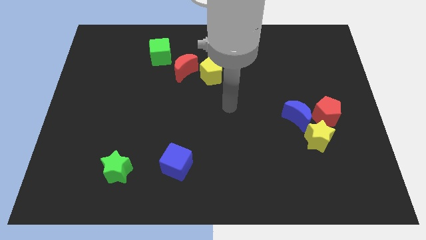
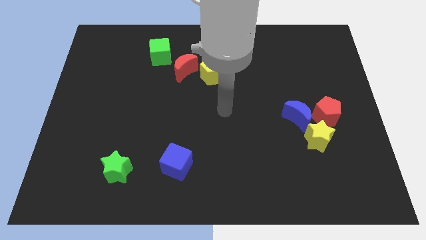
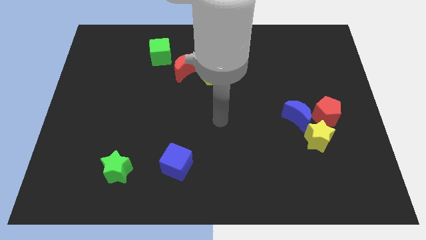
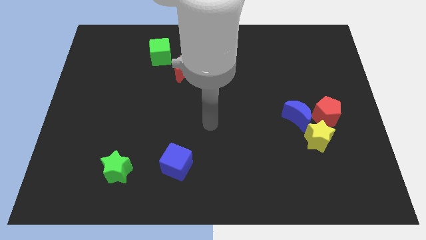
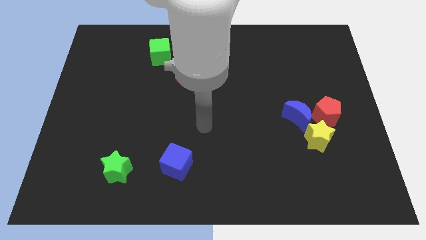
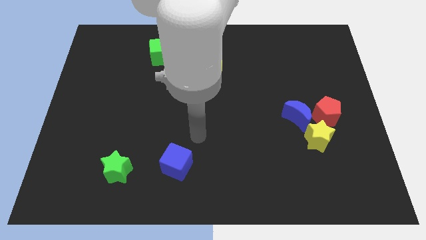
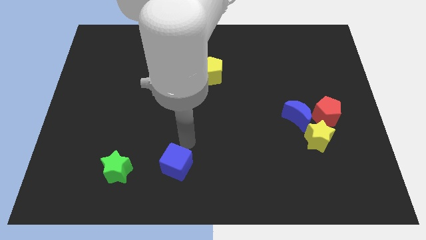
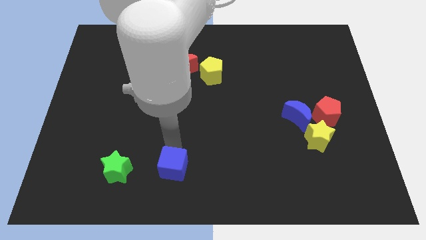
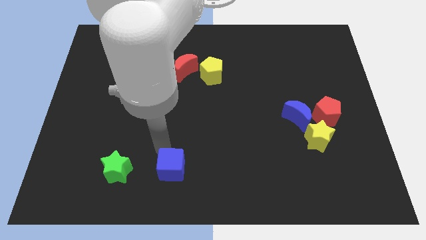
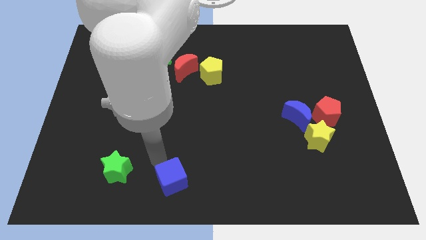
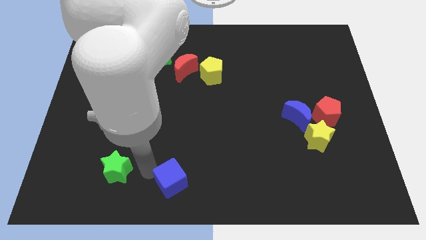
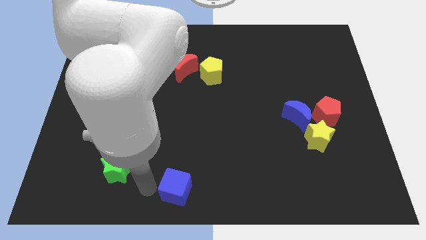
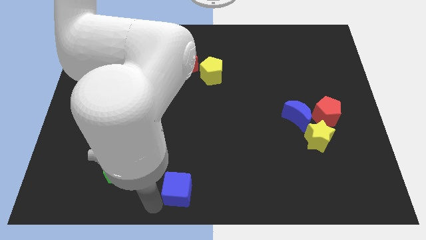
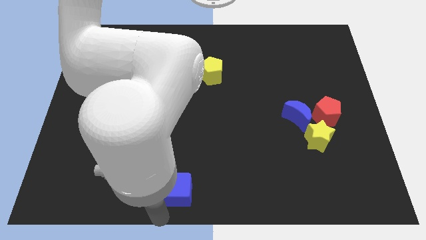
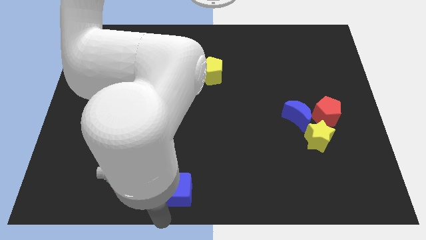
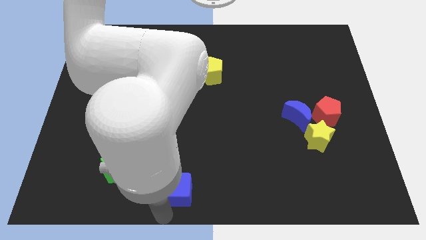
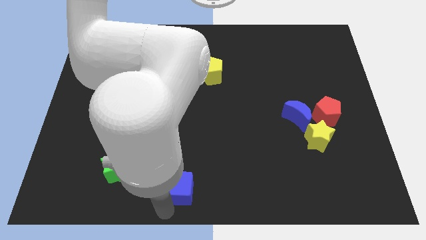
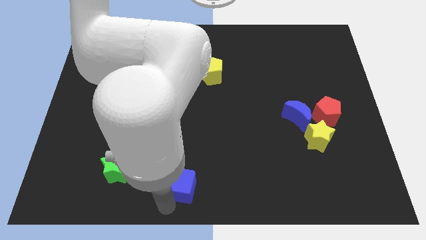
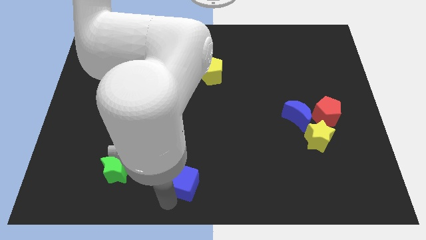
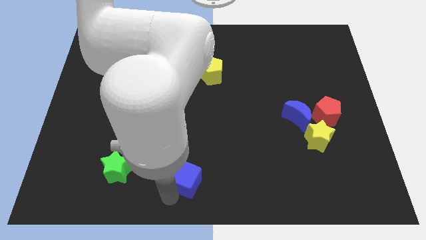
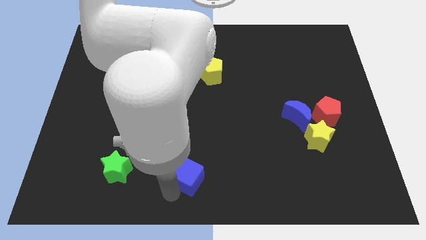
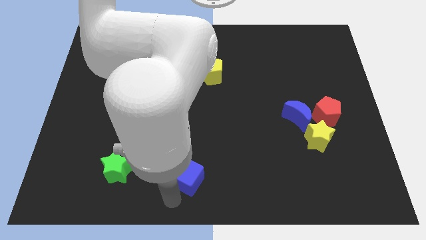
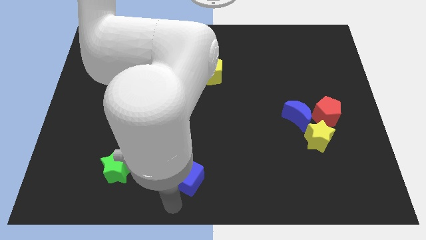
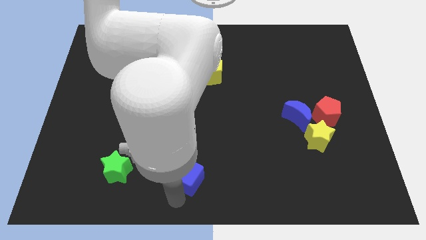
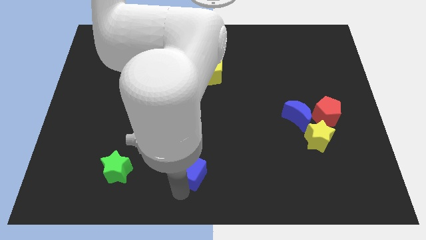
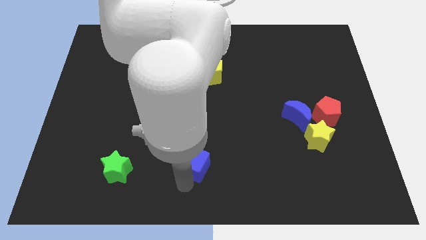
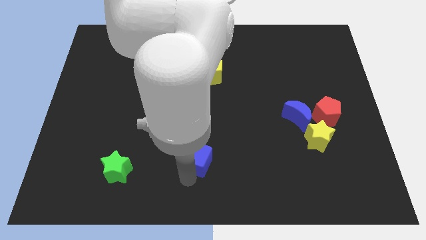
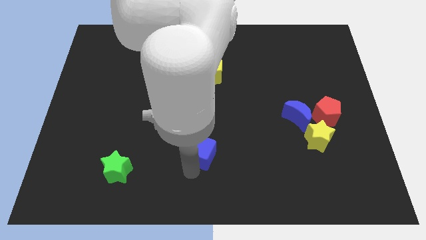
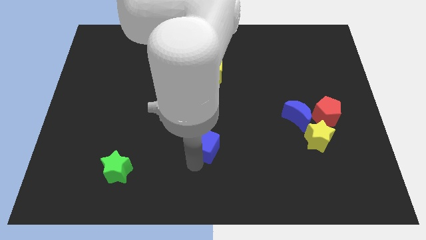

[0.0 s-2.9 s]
move the blue cube up and then to the right a little bit

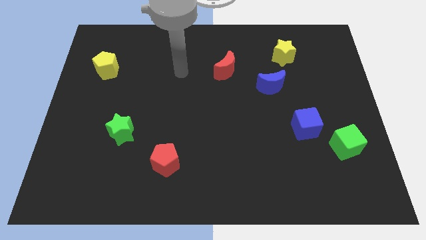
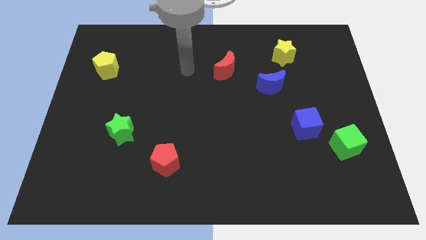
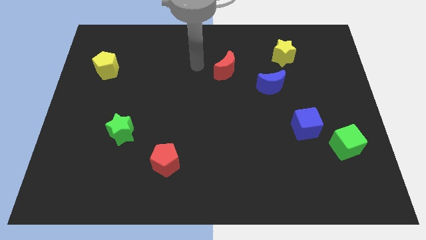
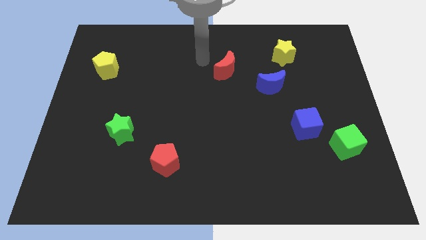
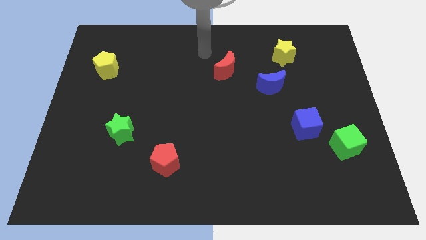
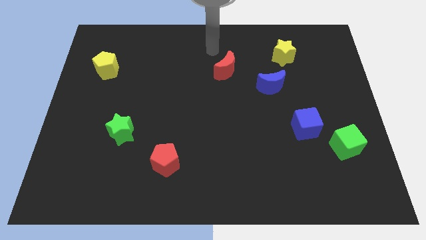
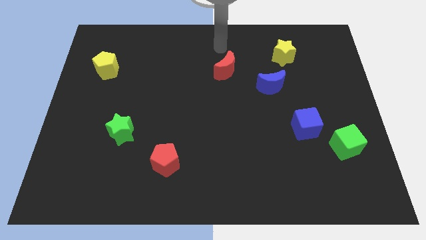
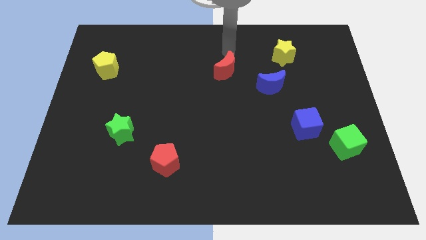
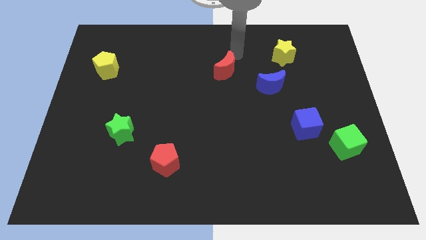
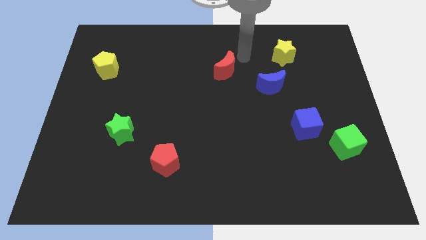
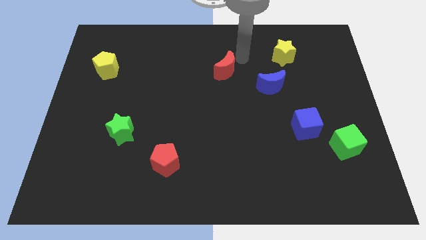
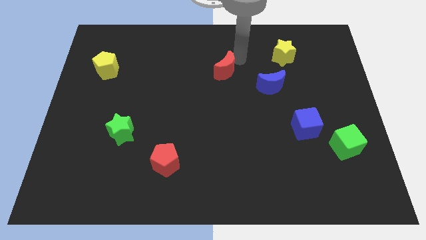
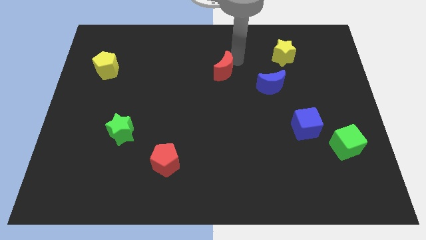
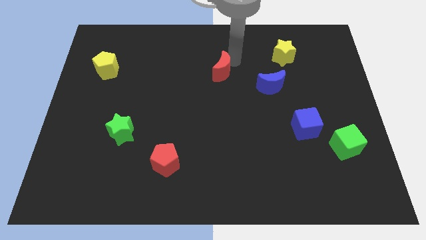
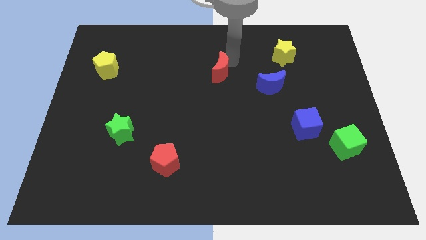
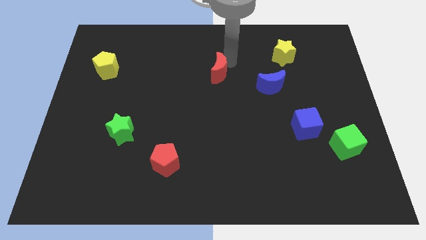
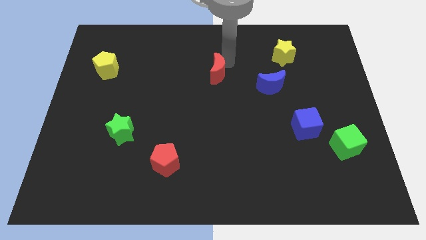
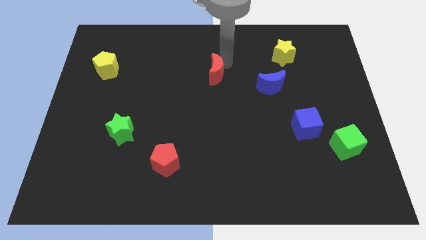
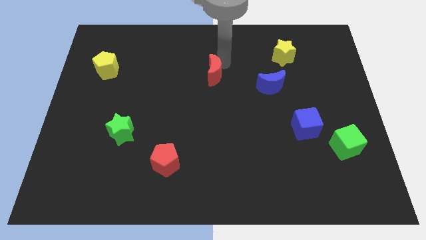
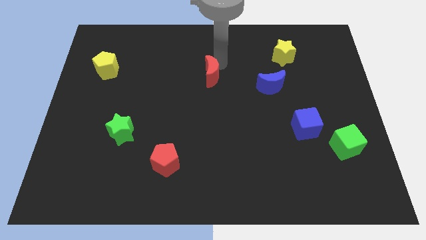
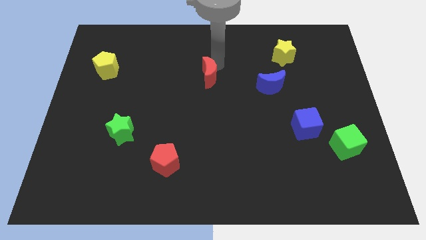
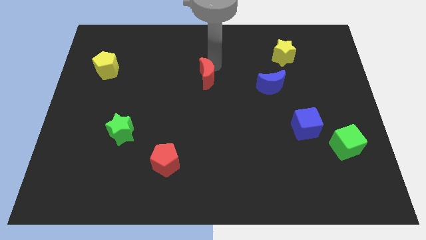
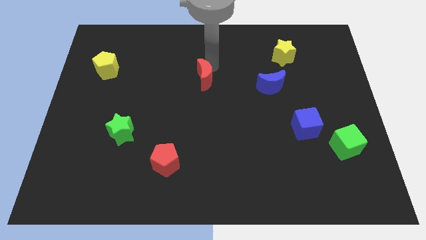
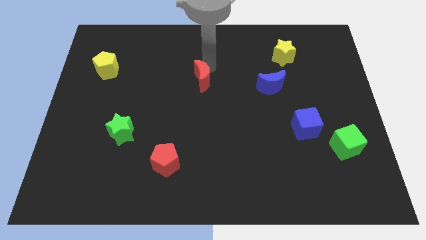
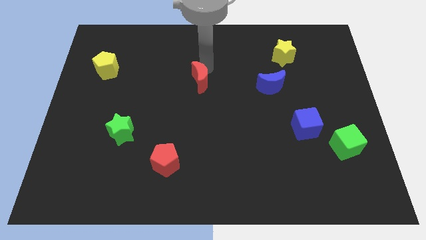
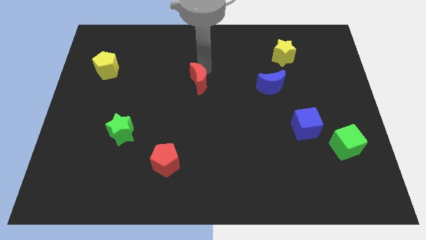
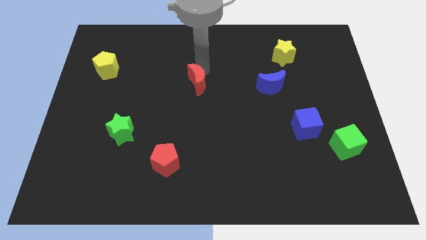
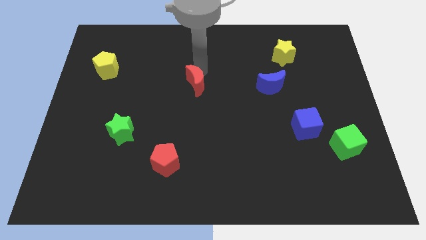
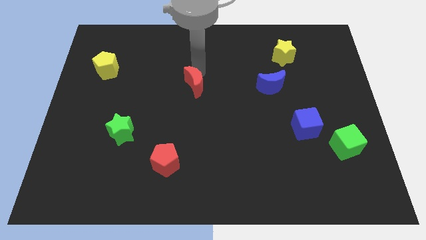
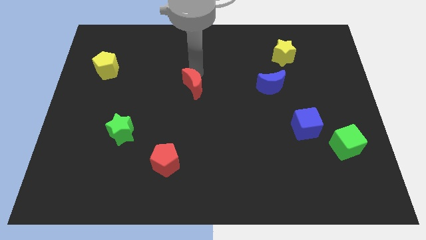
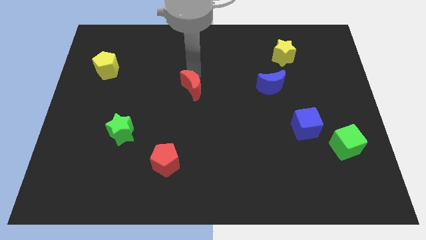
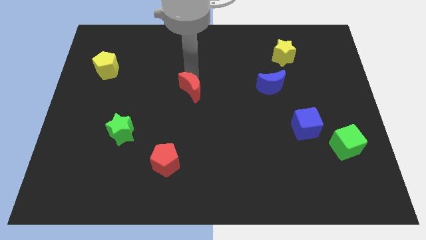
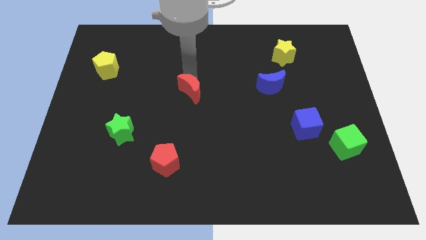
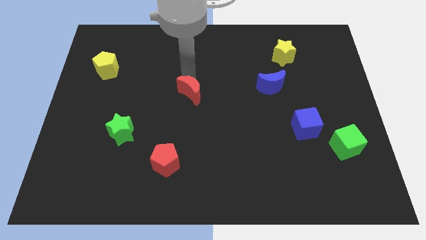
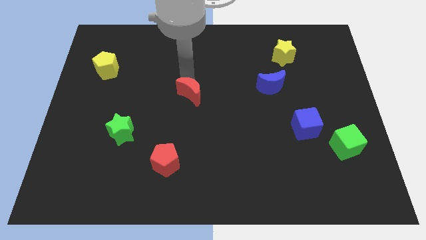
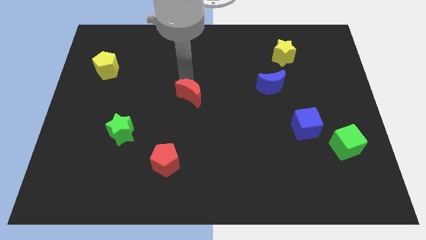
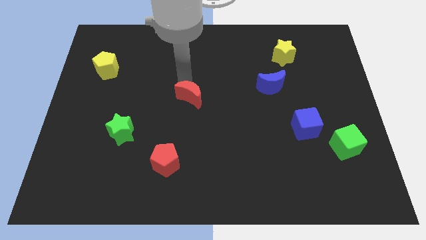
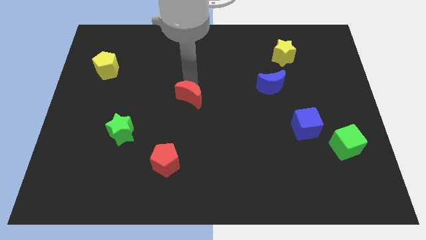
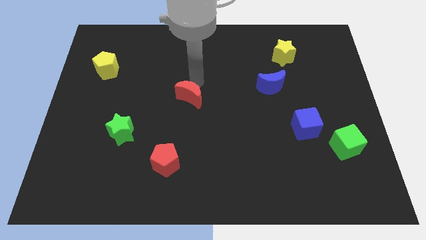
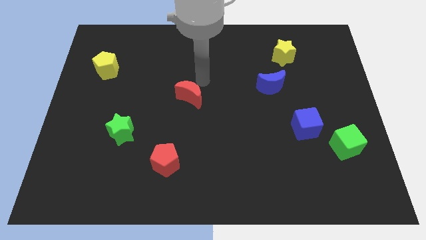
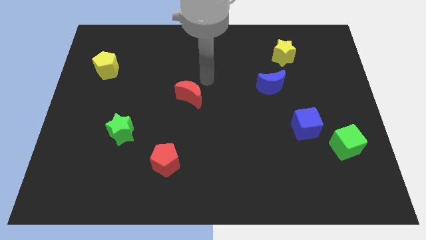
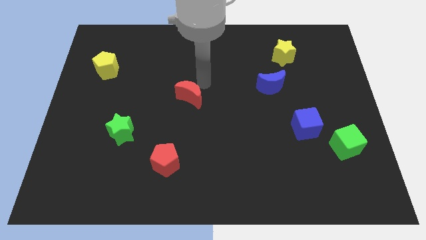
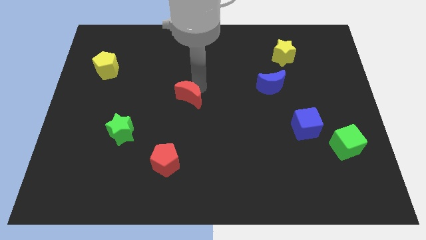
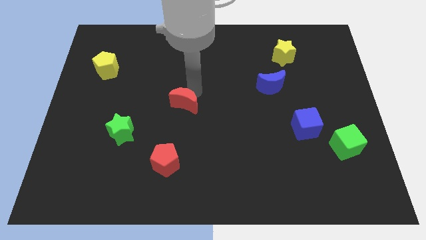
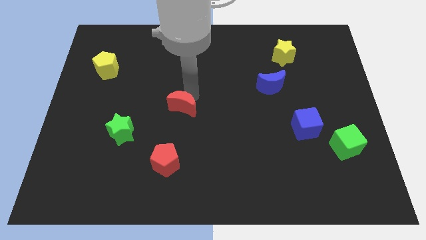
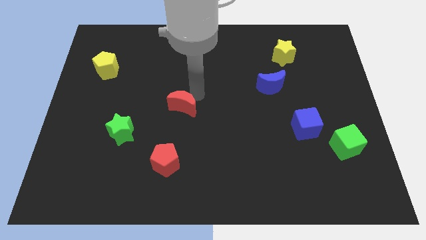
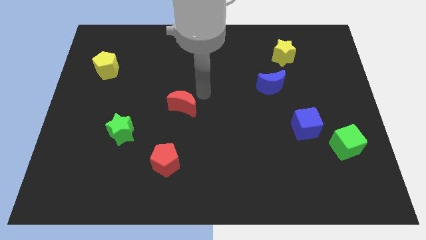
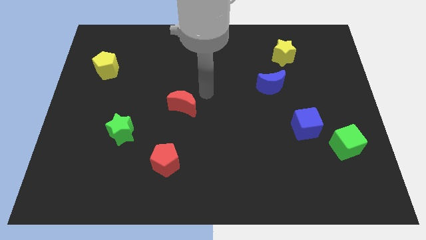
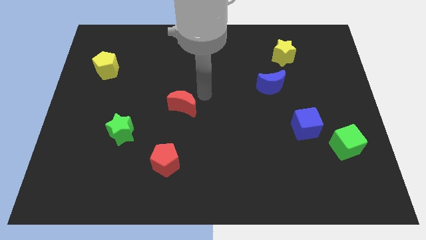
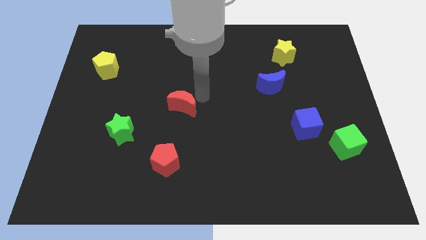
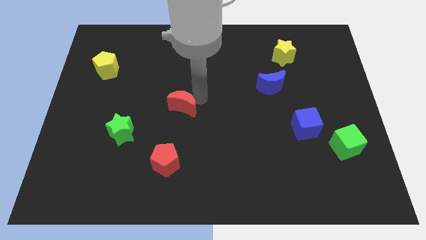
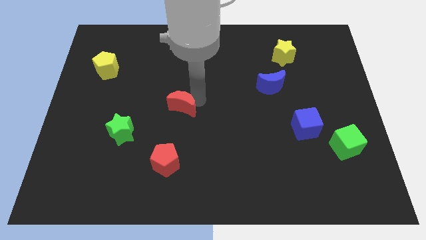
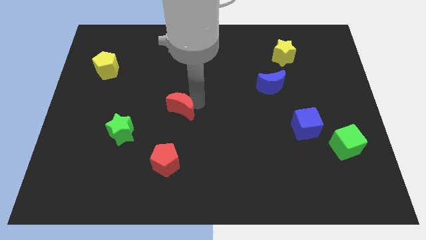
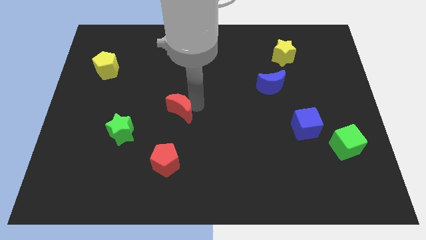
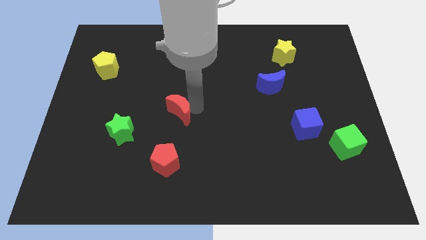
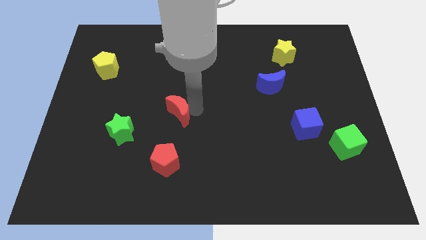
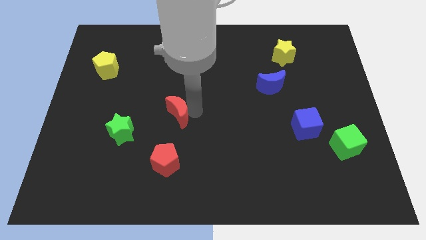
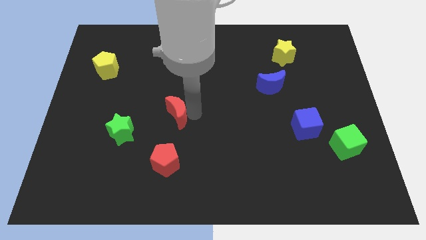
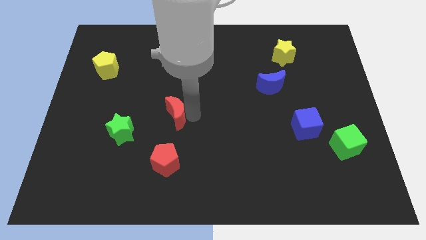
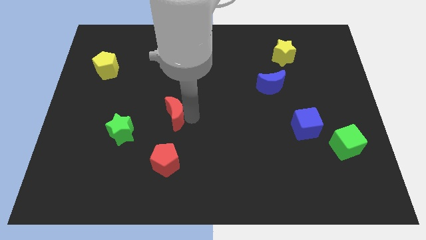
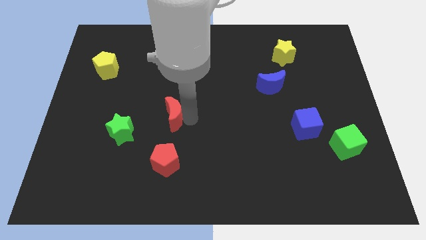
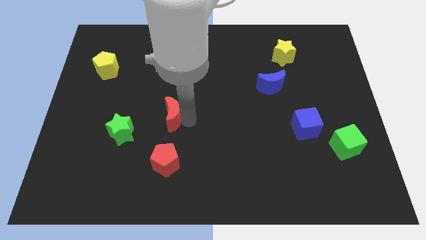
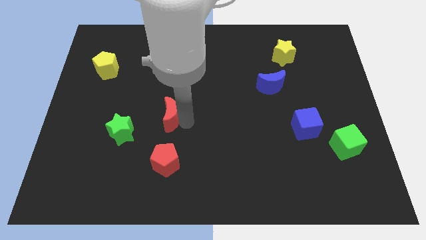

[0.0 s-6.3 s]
slide the red moon downwards and then to the left
